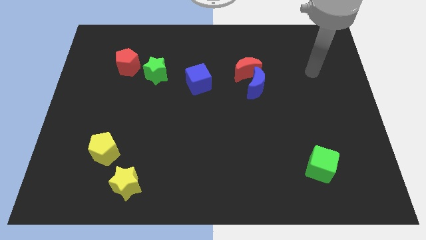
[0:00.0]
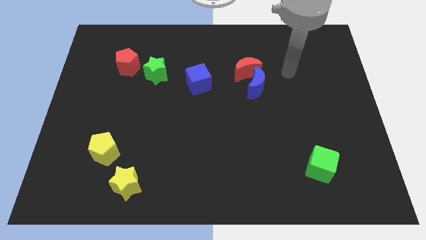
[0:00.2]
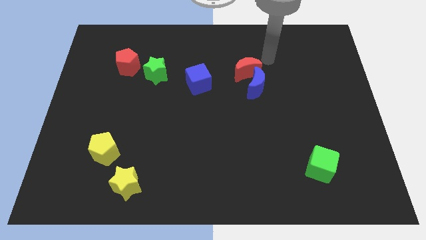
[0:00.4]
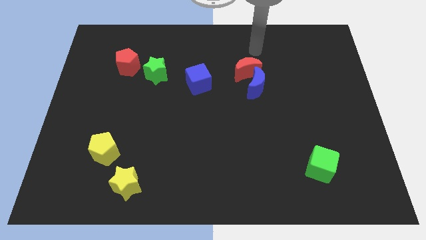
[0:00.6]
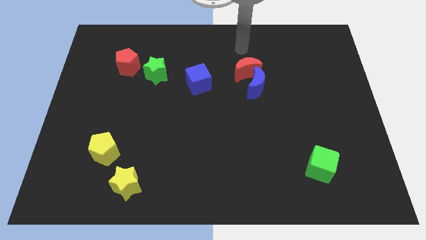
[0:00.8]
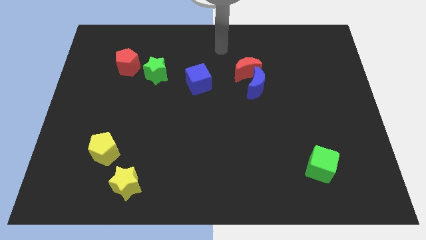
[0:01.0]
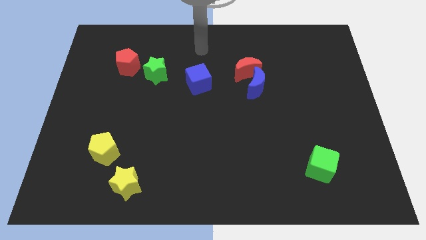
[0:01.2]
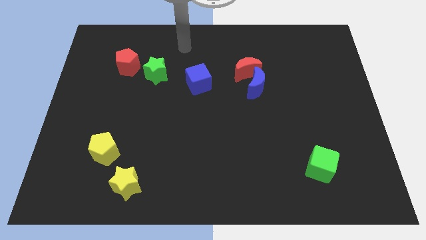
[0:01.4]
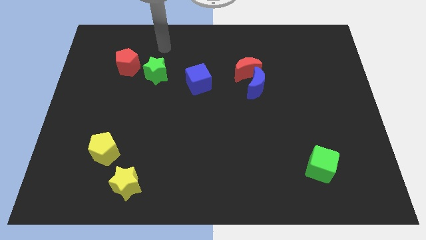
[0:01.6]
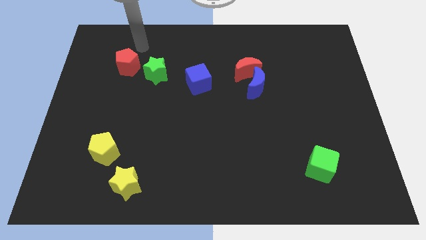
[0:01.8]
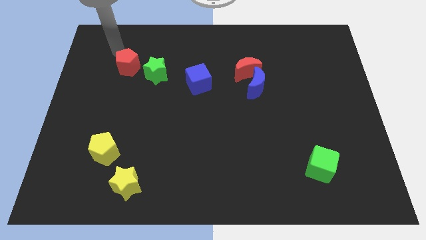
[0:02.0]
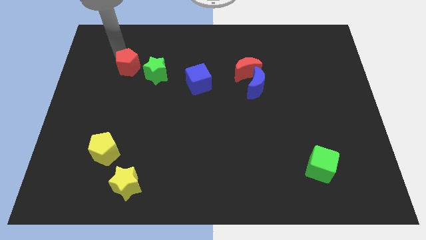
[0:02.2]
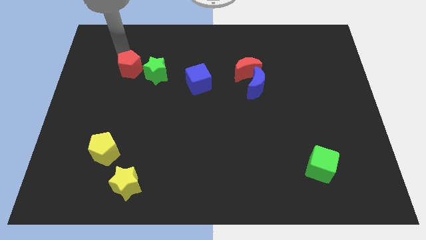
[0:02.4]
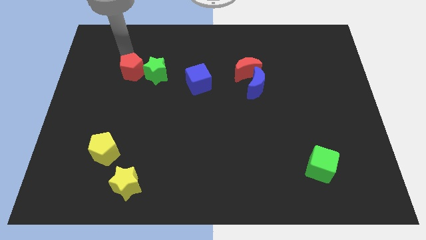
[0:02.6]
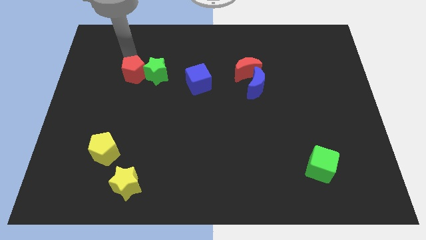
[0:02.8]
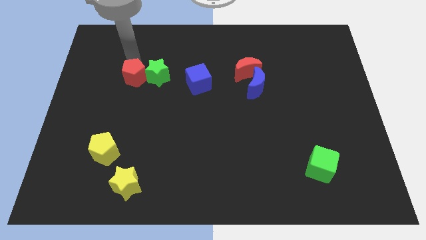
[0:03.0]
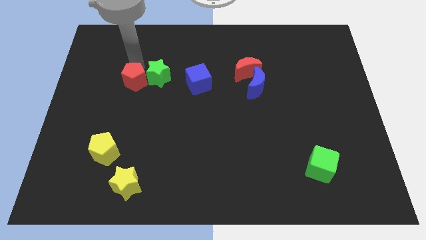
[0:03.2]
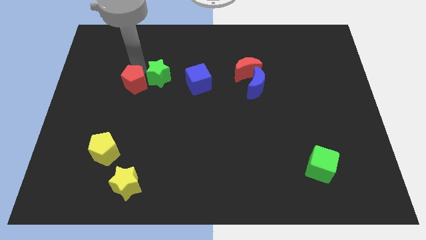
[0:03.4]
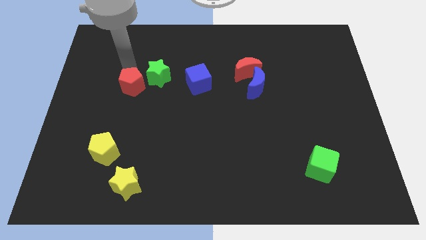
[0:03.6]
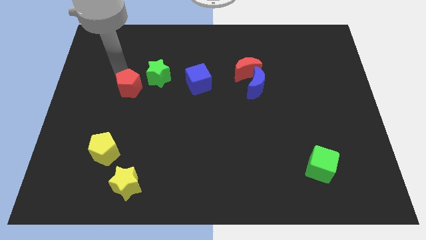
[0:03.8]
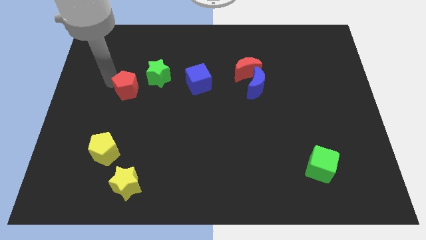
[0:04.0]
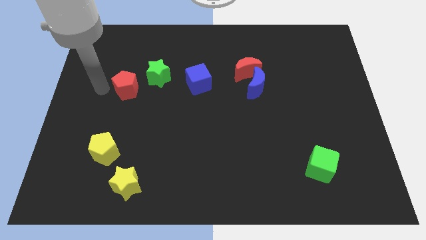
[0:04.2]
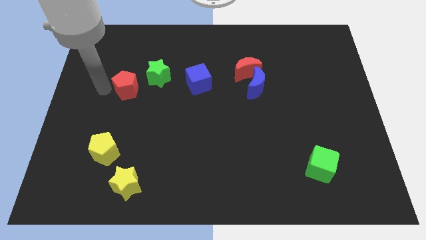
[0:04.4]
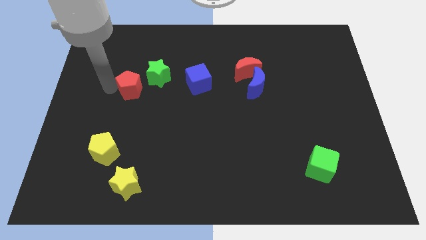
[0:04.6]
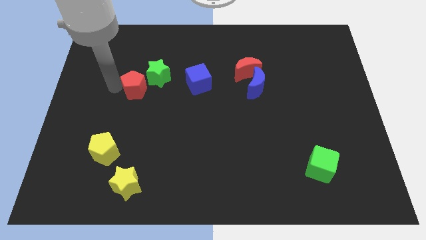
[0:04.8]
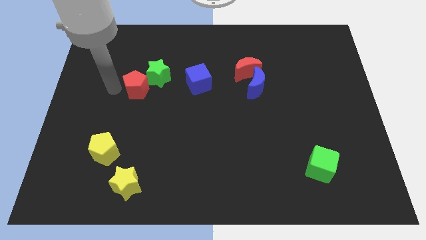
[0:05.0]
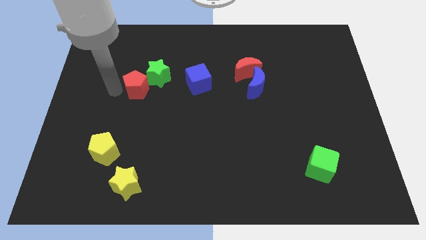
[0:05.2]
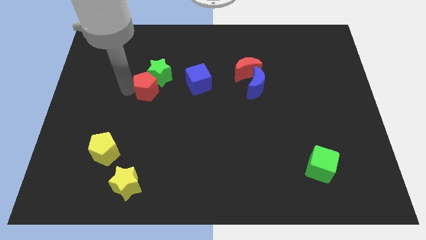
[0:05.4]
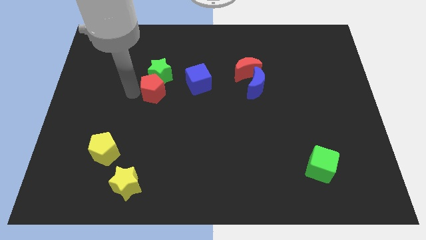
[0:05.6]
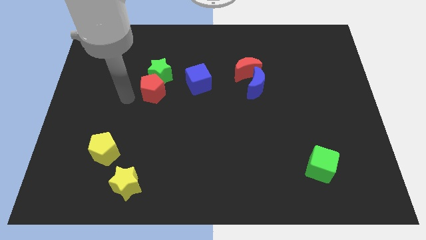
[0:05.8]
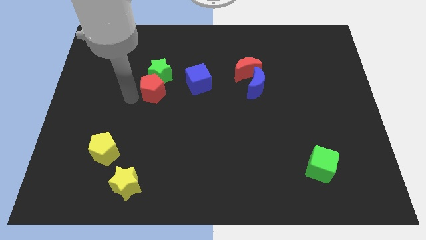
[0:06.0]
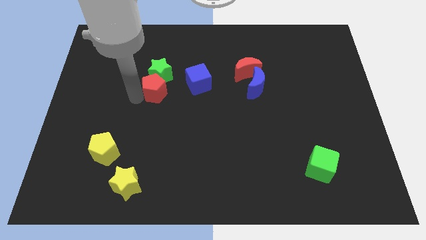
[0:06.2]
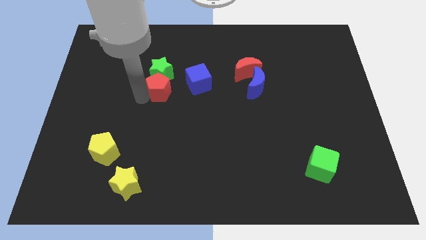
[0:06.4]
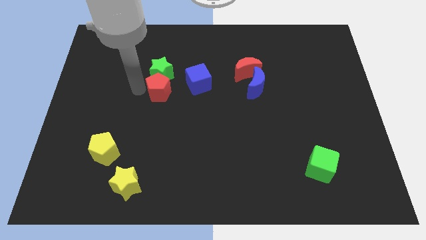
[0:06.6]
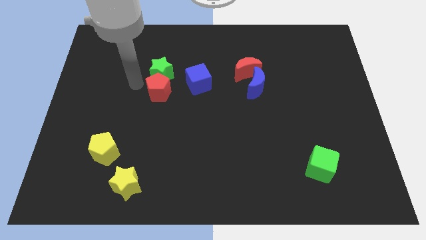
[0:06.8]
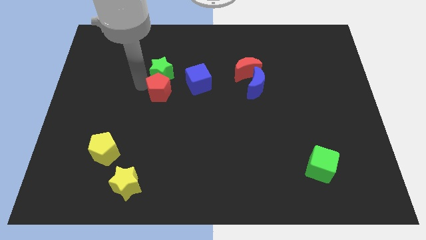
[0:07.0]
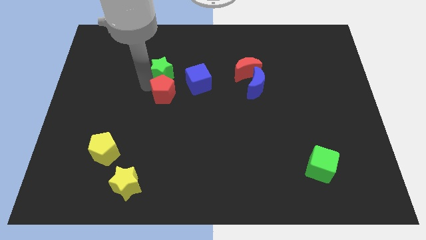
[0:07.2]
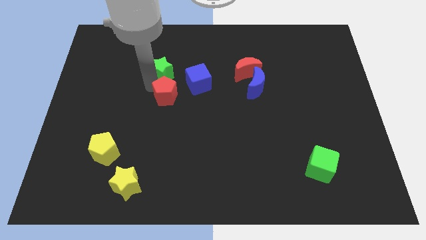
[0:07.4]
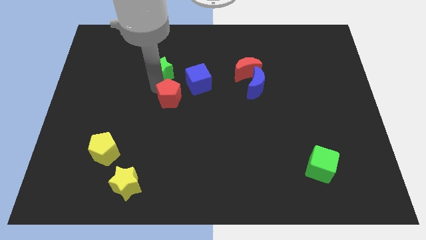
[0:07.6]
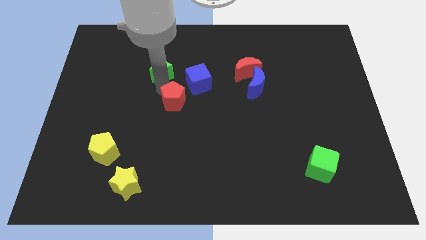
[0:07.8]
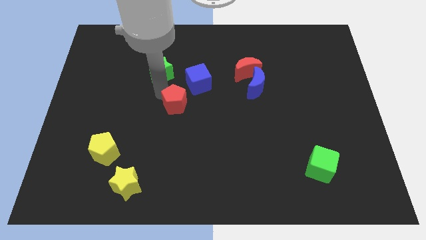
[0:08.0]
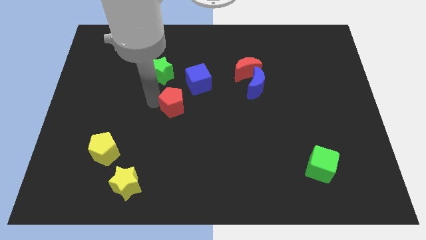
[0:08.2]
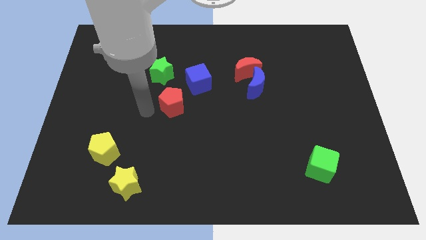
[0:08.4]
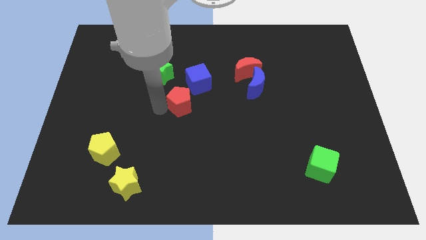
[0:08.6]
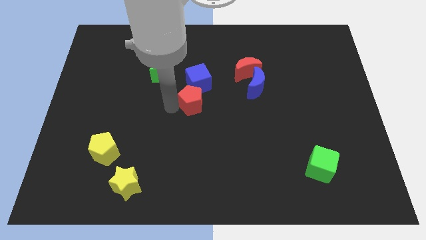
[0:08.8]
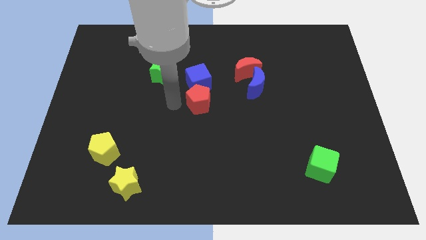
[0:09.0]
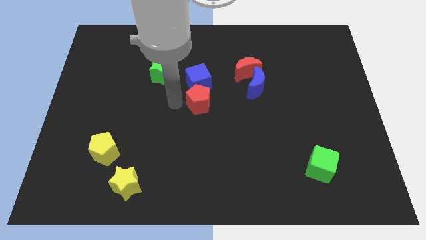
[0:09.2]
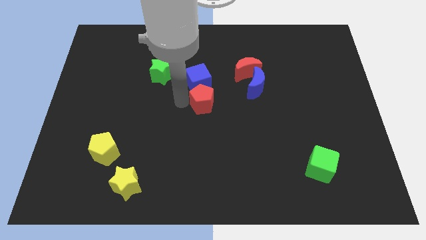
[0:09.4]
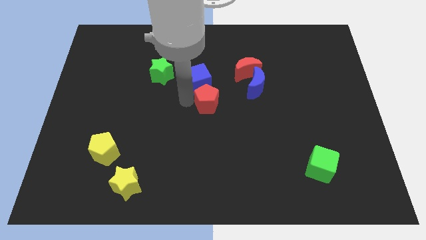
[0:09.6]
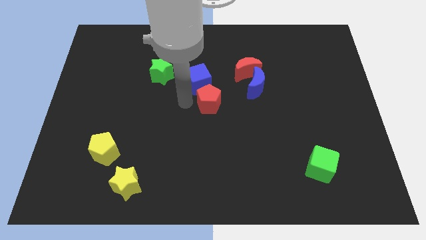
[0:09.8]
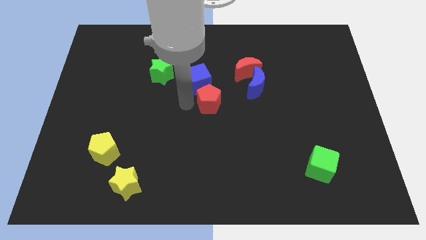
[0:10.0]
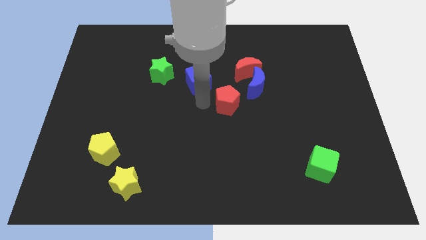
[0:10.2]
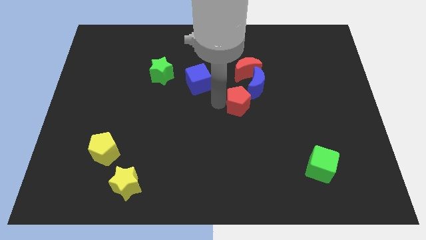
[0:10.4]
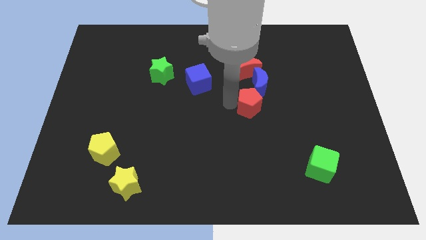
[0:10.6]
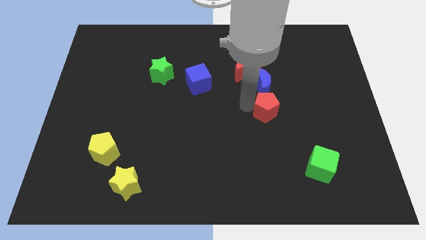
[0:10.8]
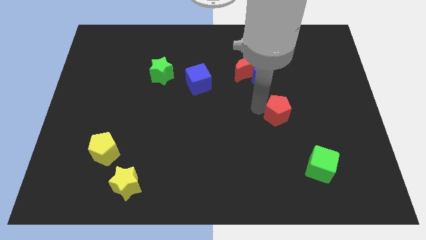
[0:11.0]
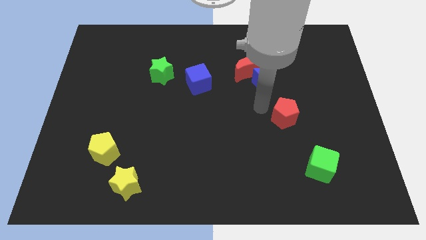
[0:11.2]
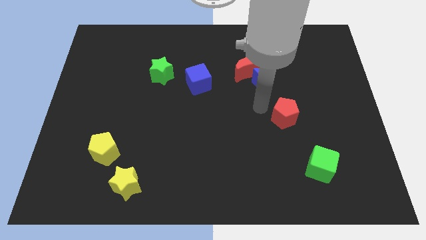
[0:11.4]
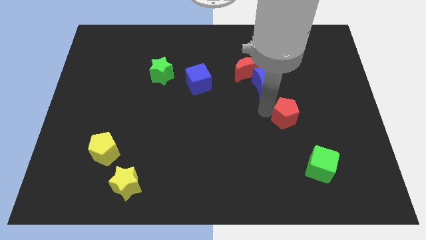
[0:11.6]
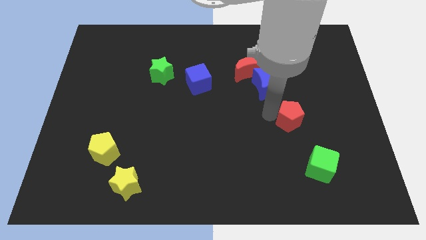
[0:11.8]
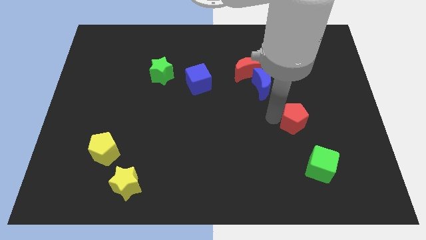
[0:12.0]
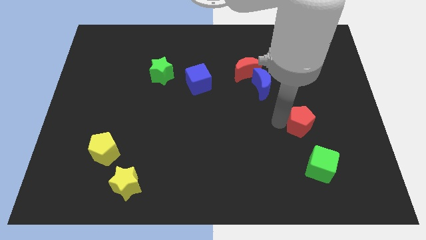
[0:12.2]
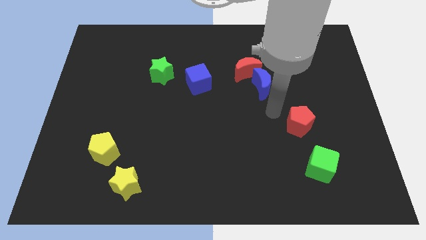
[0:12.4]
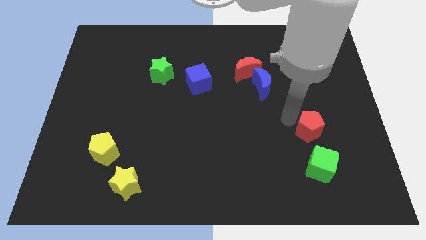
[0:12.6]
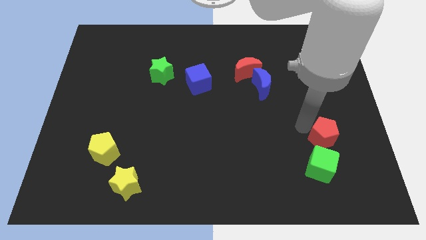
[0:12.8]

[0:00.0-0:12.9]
move the red pentagon to the top right side of the green cube
